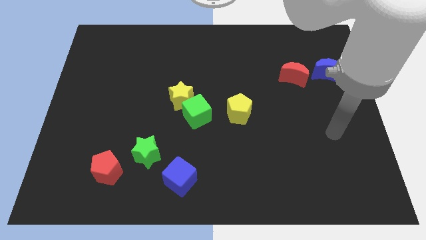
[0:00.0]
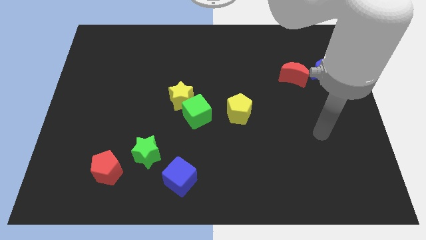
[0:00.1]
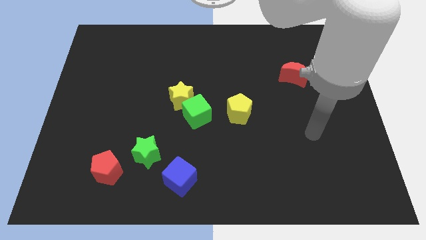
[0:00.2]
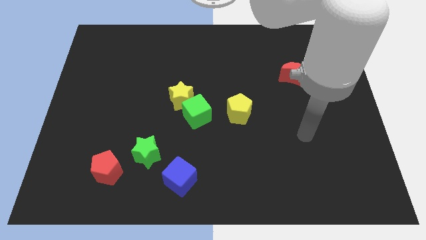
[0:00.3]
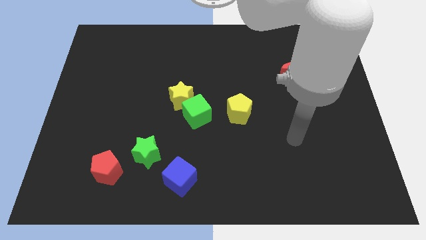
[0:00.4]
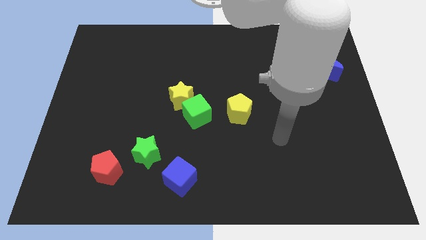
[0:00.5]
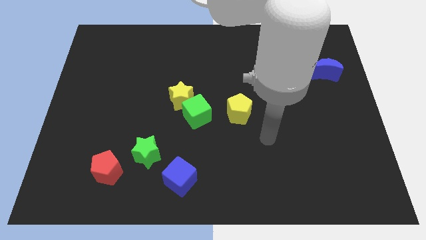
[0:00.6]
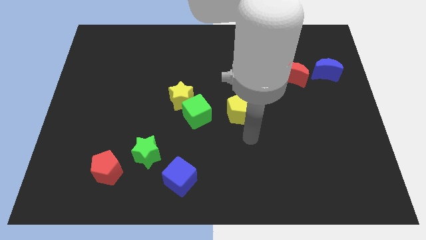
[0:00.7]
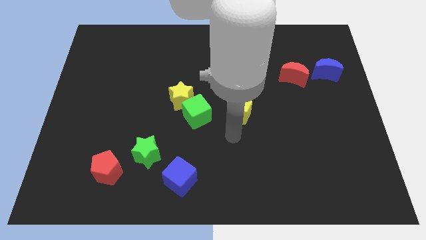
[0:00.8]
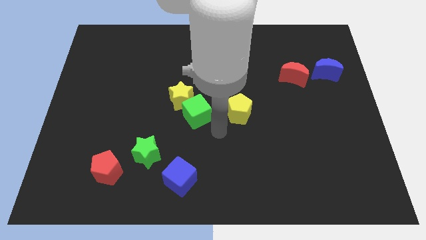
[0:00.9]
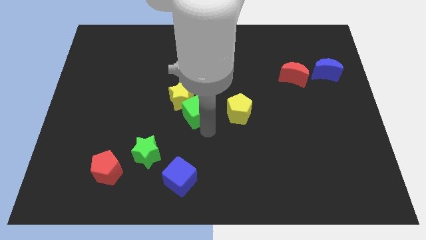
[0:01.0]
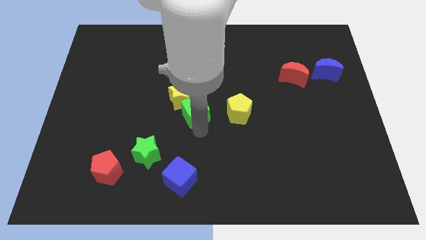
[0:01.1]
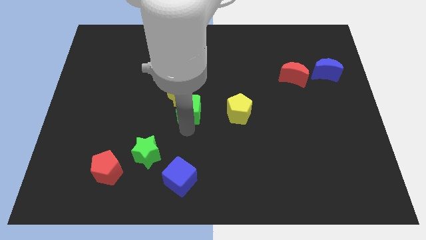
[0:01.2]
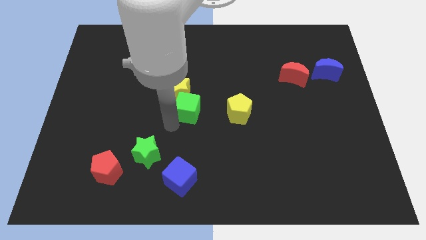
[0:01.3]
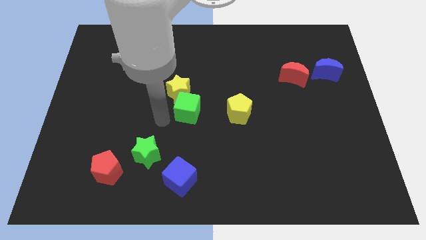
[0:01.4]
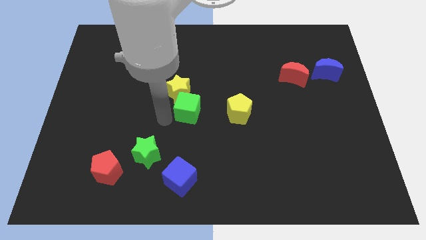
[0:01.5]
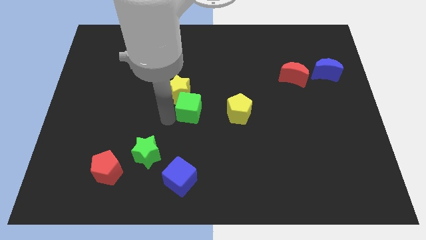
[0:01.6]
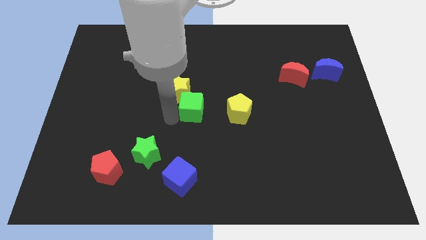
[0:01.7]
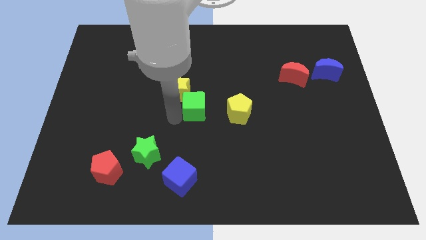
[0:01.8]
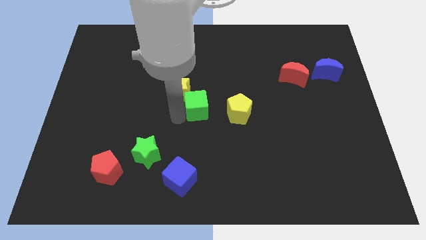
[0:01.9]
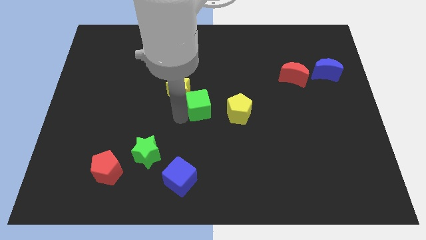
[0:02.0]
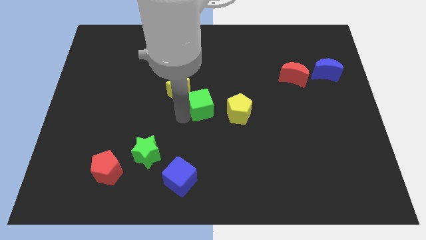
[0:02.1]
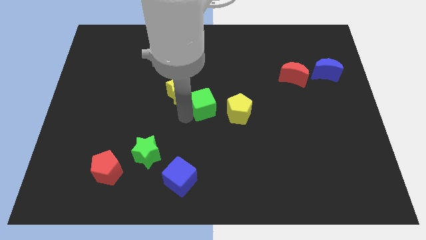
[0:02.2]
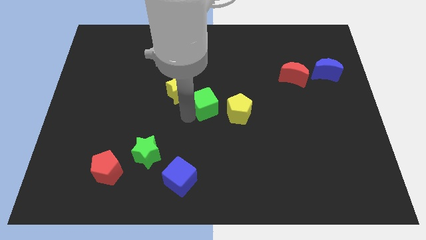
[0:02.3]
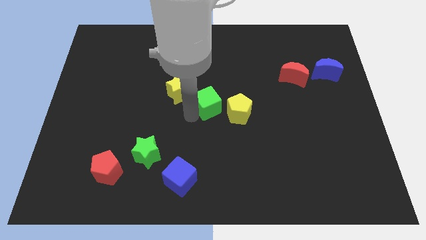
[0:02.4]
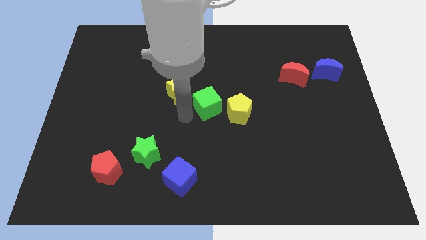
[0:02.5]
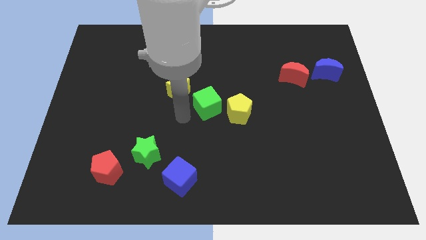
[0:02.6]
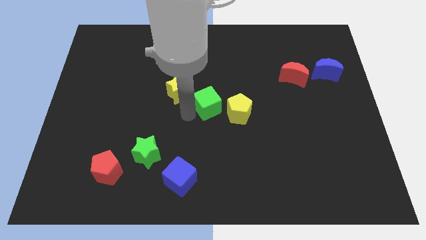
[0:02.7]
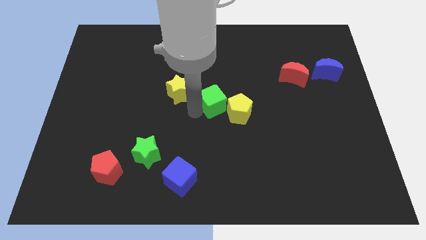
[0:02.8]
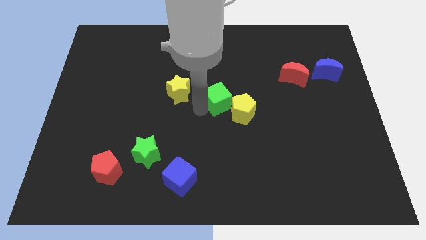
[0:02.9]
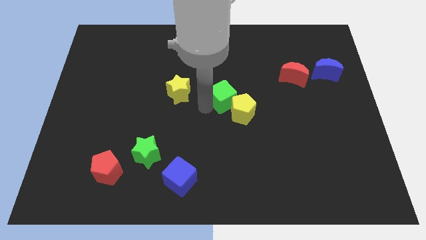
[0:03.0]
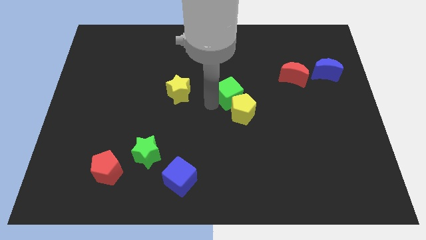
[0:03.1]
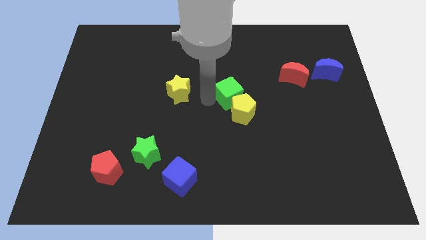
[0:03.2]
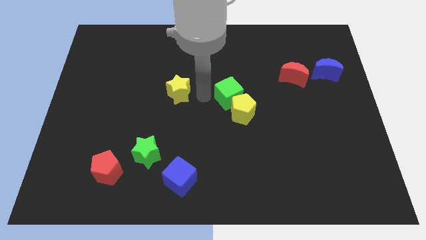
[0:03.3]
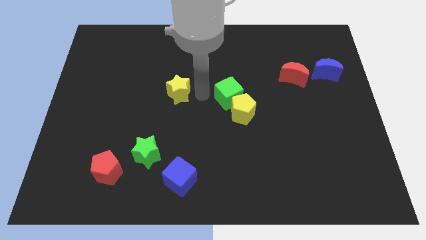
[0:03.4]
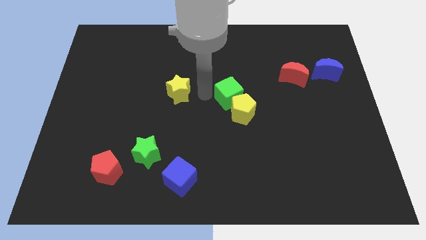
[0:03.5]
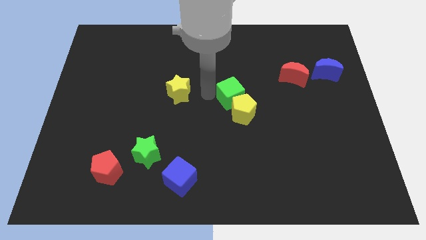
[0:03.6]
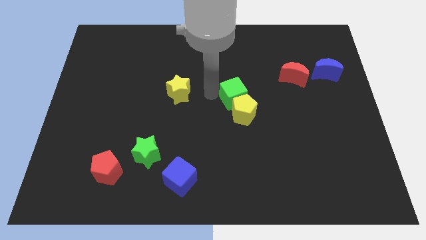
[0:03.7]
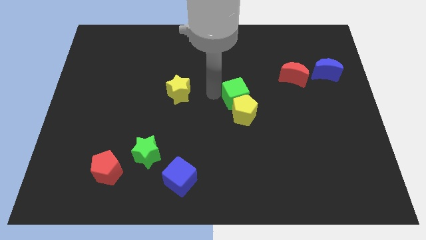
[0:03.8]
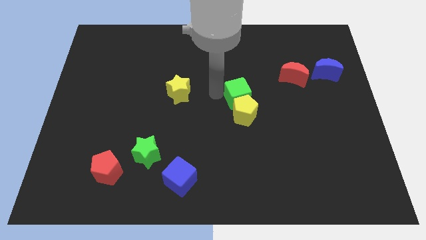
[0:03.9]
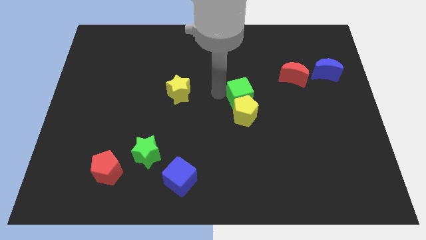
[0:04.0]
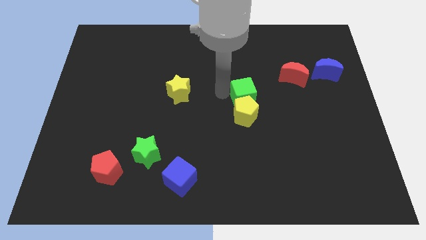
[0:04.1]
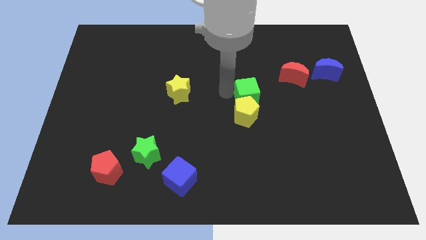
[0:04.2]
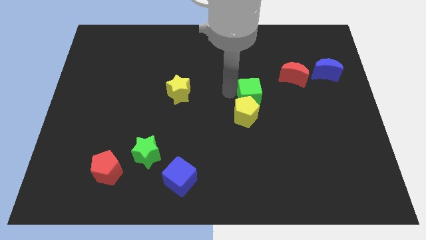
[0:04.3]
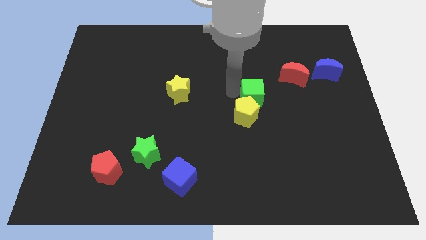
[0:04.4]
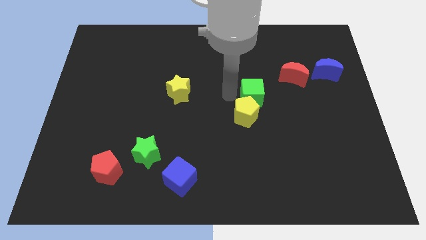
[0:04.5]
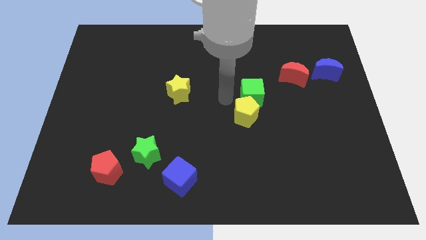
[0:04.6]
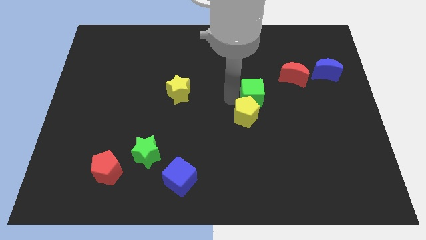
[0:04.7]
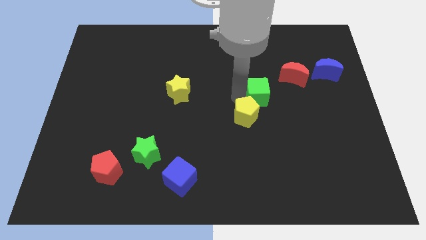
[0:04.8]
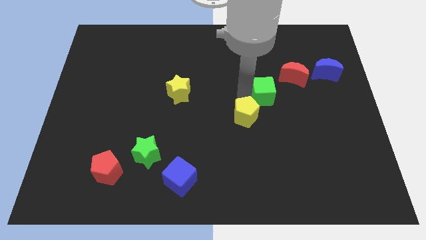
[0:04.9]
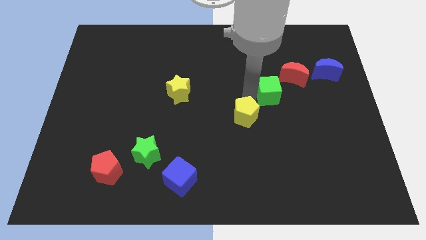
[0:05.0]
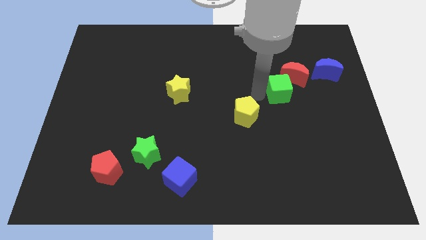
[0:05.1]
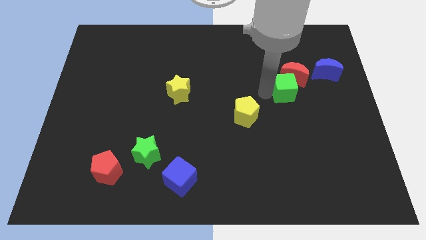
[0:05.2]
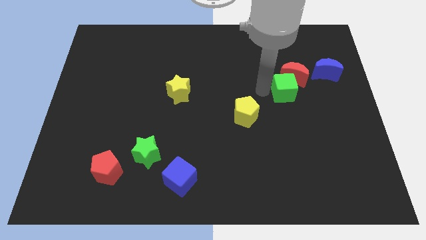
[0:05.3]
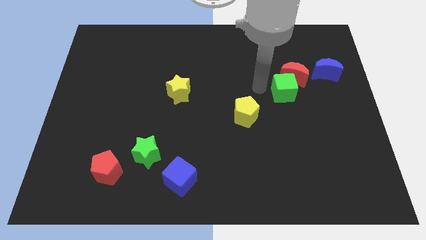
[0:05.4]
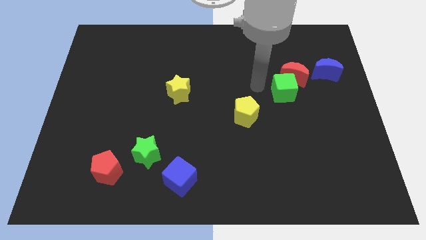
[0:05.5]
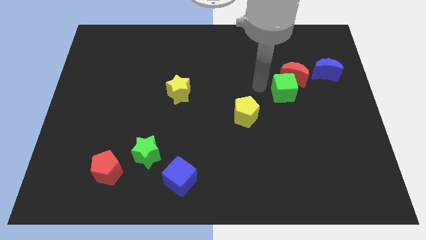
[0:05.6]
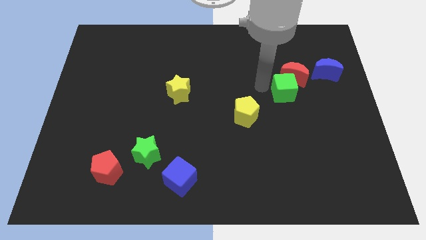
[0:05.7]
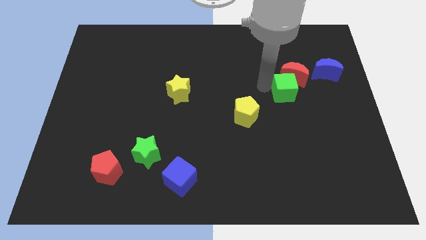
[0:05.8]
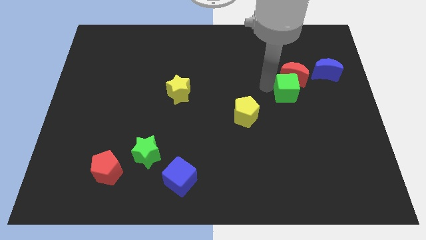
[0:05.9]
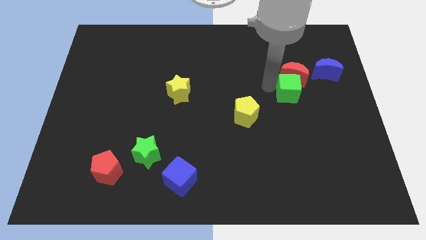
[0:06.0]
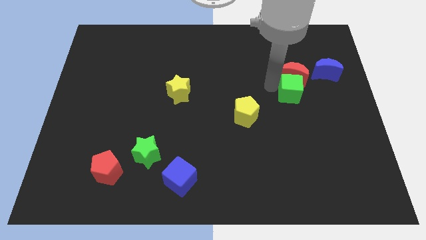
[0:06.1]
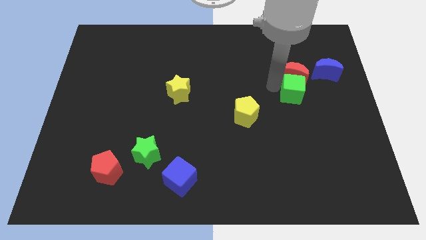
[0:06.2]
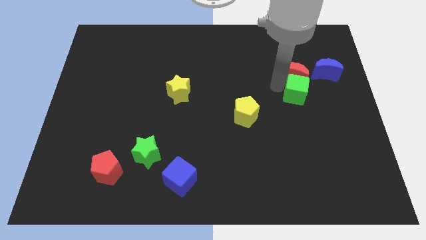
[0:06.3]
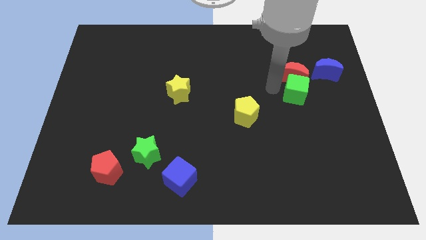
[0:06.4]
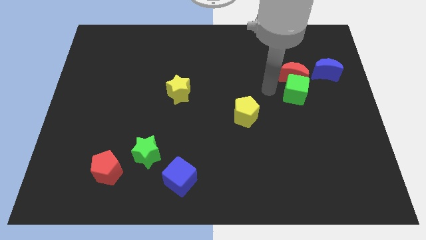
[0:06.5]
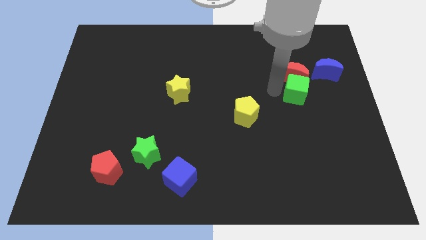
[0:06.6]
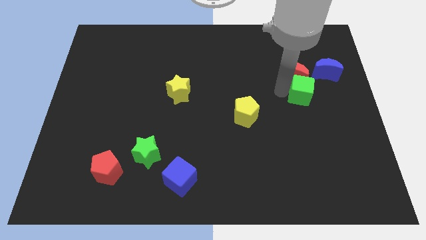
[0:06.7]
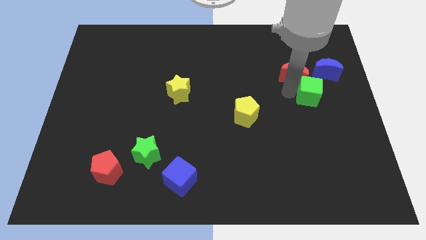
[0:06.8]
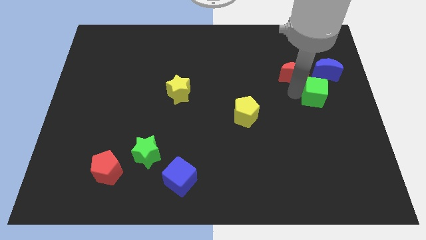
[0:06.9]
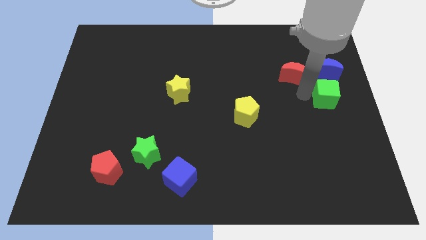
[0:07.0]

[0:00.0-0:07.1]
put the green cube to the center right

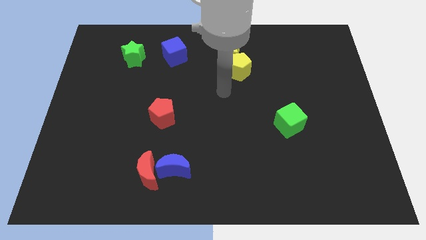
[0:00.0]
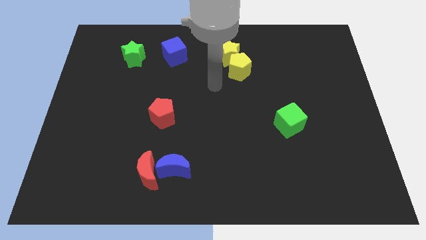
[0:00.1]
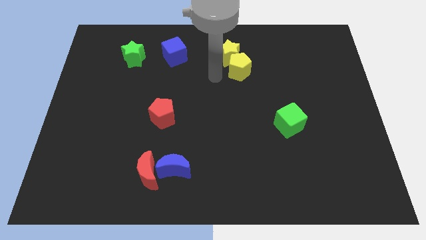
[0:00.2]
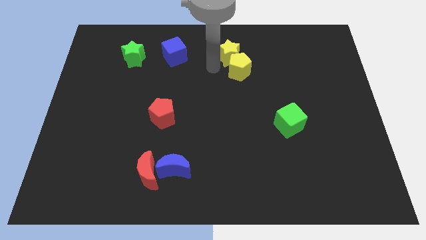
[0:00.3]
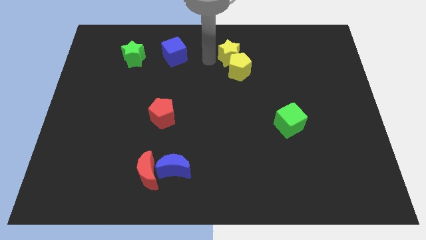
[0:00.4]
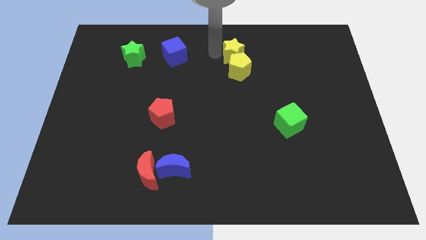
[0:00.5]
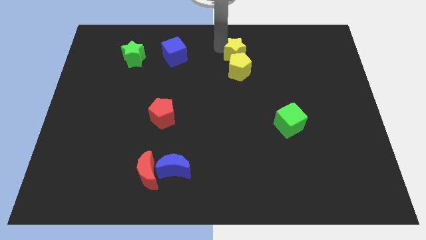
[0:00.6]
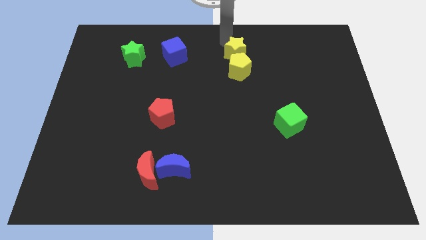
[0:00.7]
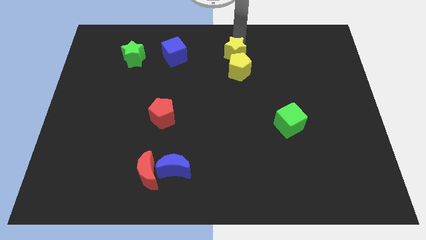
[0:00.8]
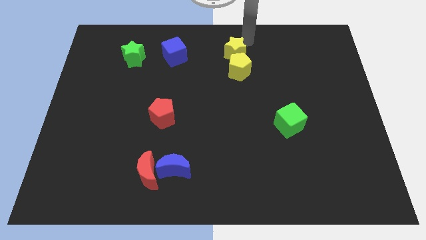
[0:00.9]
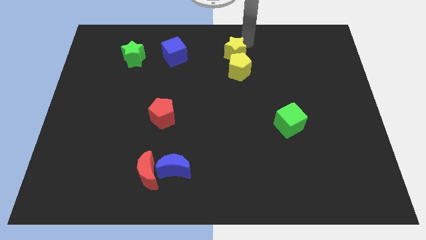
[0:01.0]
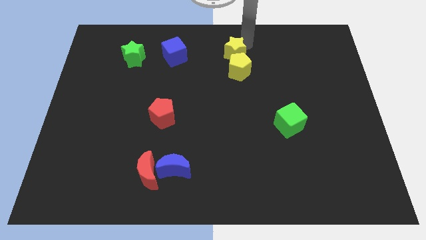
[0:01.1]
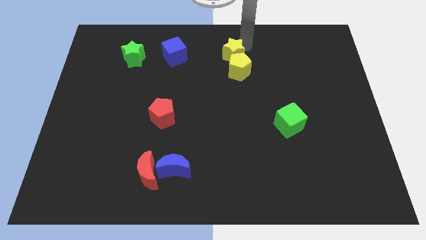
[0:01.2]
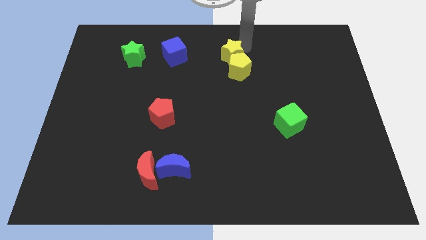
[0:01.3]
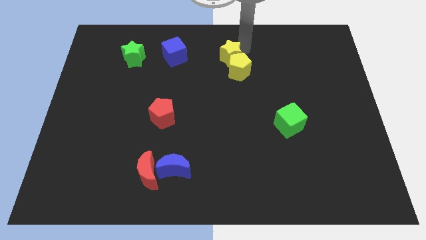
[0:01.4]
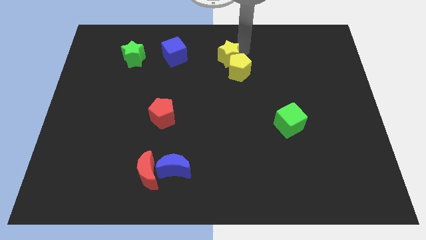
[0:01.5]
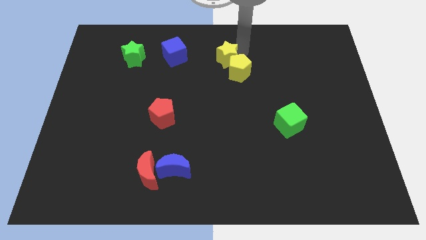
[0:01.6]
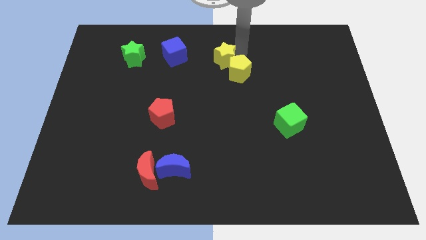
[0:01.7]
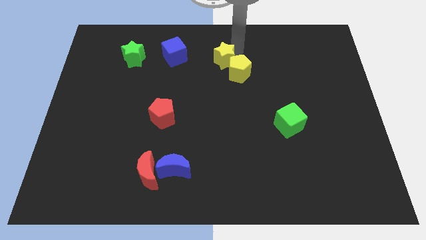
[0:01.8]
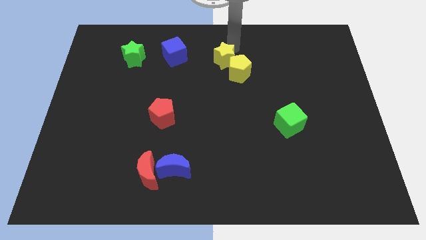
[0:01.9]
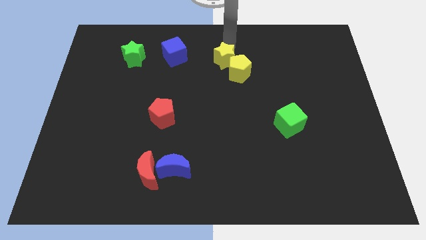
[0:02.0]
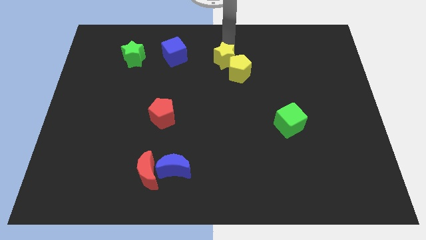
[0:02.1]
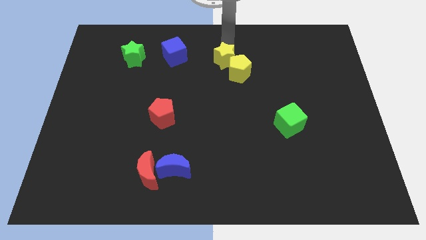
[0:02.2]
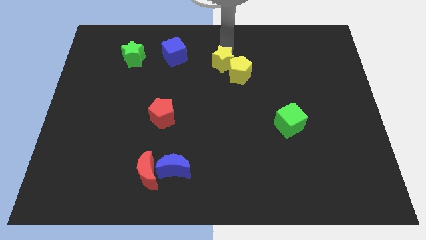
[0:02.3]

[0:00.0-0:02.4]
move the yellow star to the middle of the board
